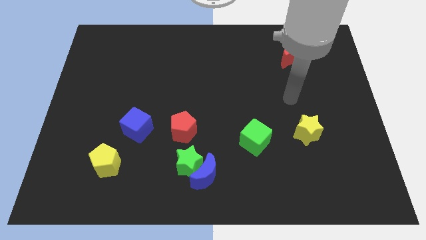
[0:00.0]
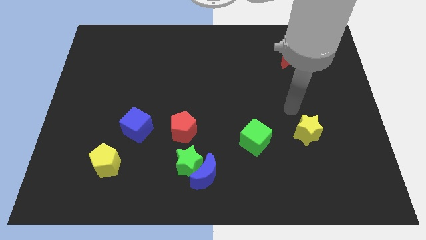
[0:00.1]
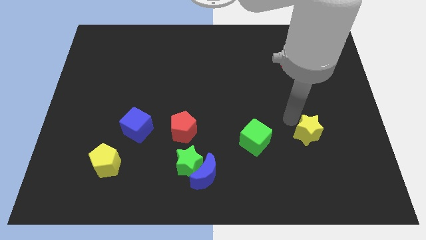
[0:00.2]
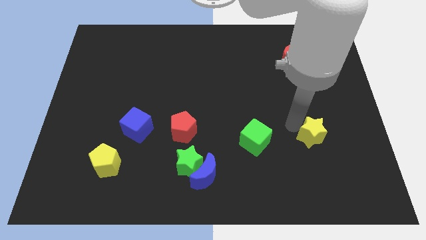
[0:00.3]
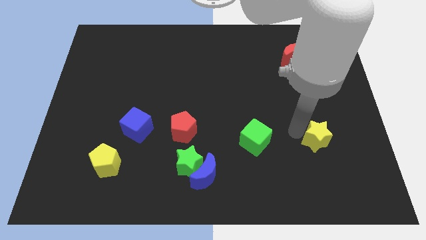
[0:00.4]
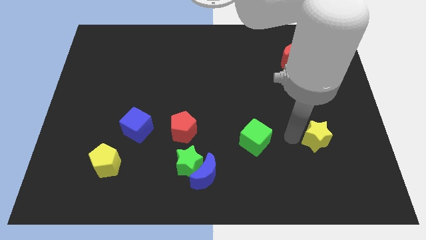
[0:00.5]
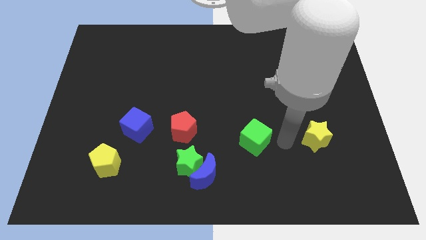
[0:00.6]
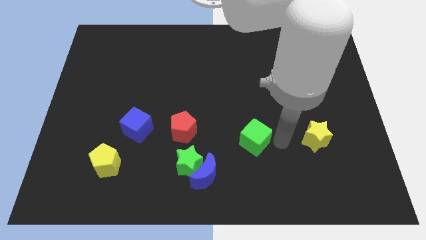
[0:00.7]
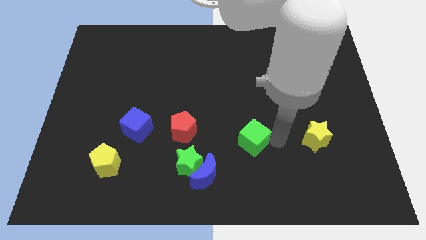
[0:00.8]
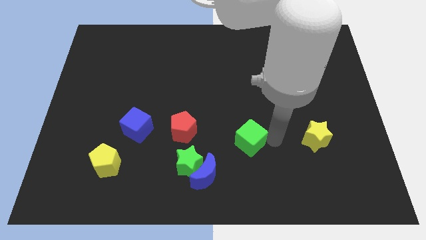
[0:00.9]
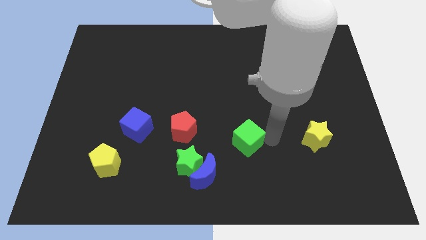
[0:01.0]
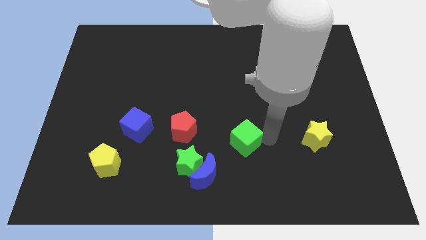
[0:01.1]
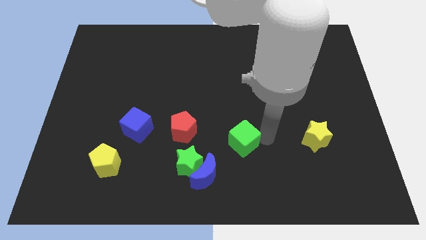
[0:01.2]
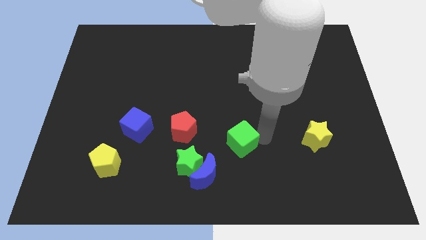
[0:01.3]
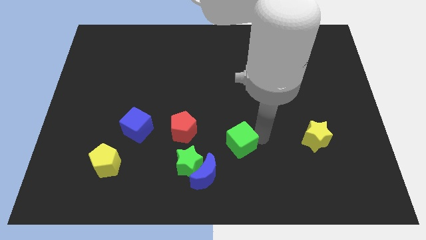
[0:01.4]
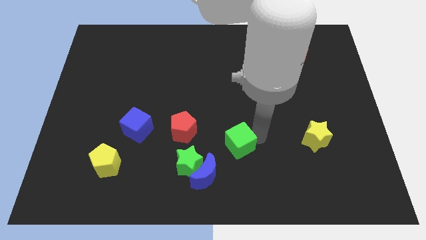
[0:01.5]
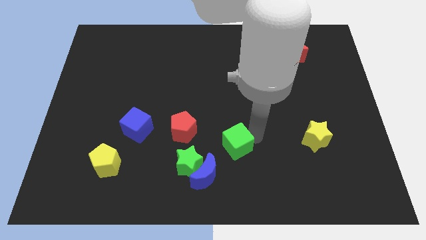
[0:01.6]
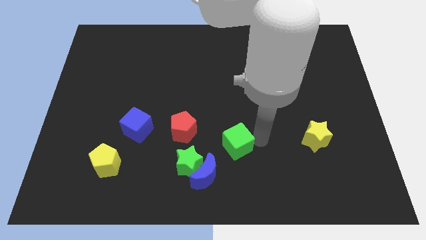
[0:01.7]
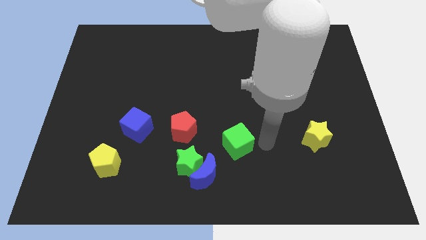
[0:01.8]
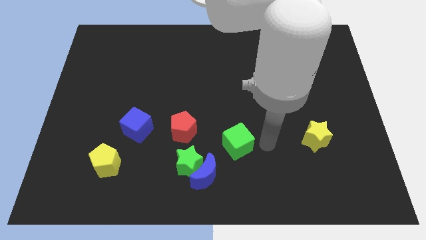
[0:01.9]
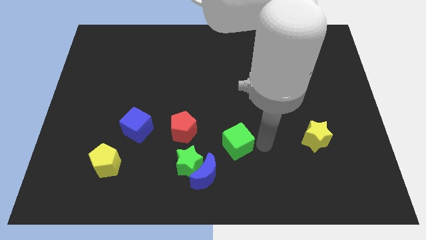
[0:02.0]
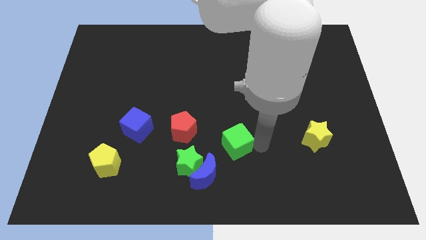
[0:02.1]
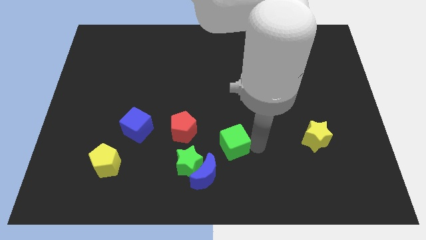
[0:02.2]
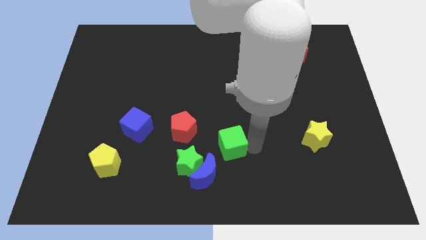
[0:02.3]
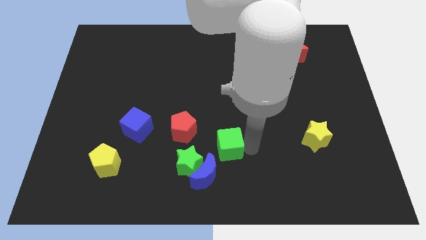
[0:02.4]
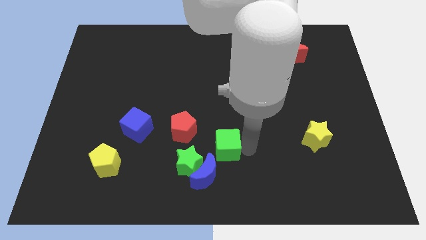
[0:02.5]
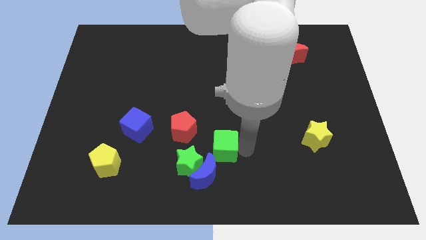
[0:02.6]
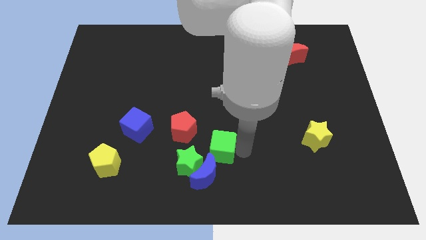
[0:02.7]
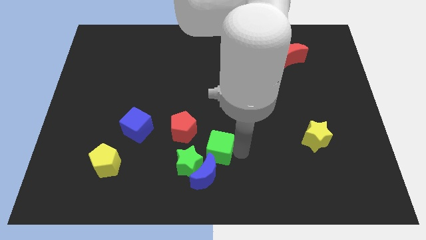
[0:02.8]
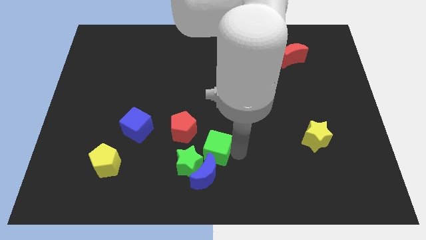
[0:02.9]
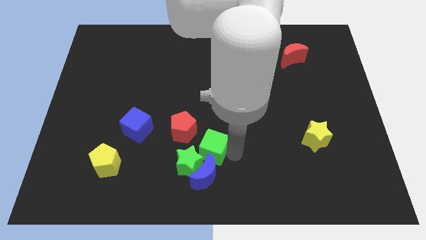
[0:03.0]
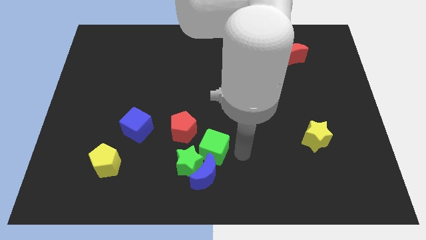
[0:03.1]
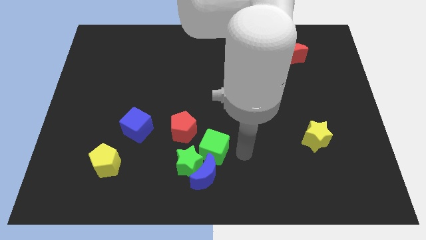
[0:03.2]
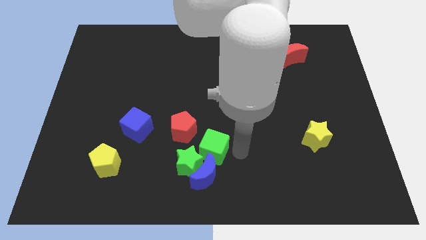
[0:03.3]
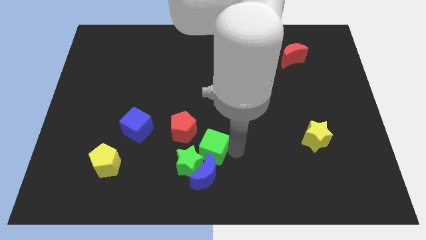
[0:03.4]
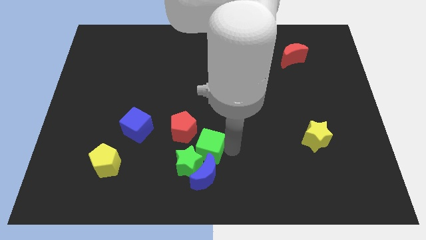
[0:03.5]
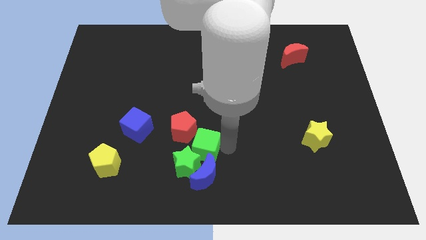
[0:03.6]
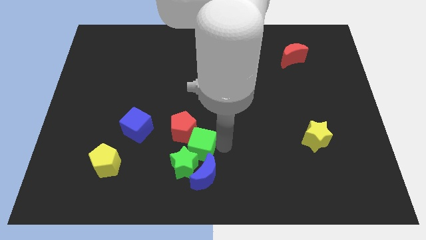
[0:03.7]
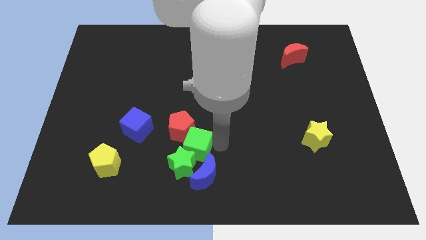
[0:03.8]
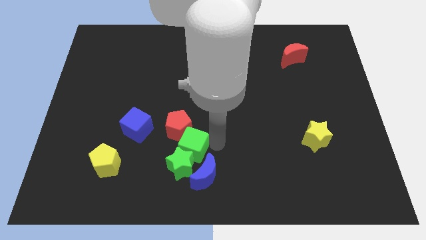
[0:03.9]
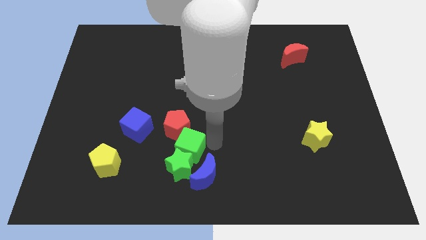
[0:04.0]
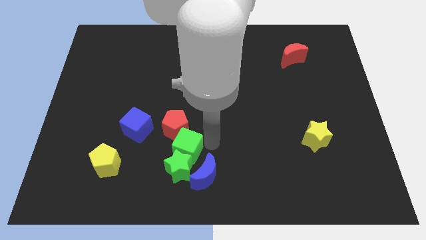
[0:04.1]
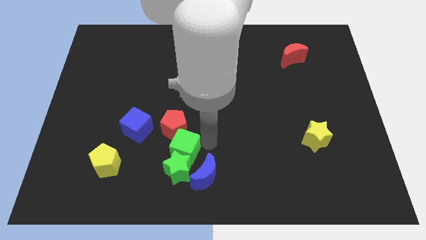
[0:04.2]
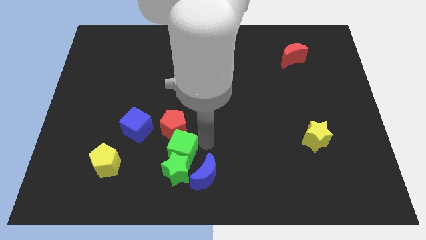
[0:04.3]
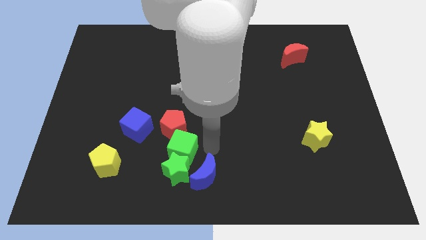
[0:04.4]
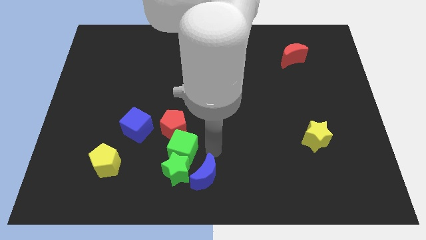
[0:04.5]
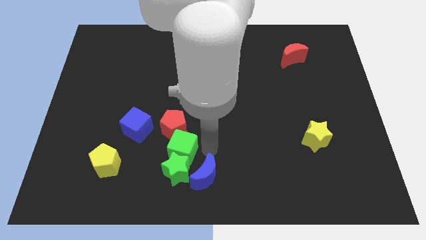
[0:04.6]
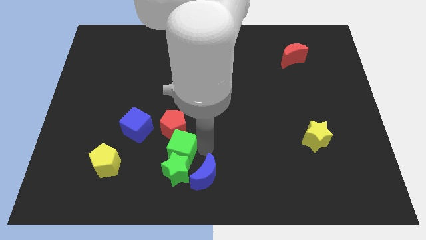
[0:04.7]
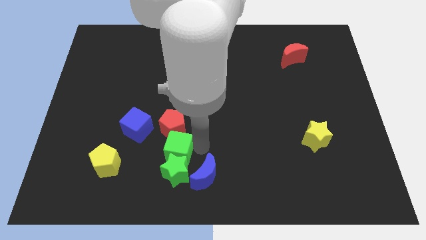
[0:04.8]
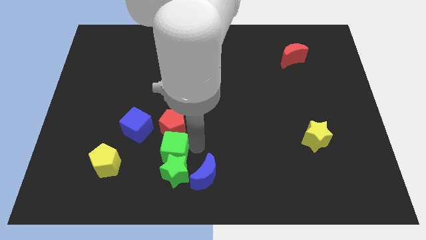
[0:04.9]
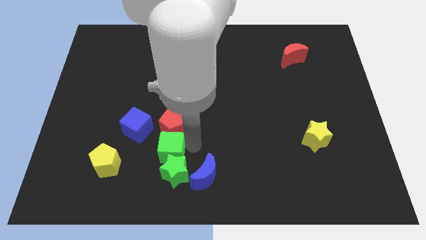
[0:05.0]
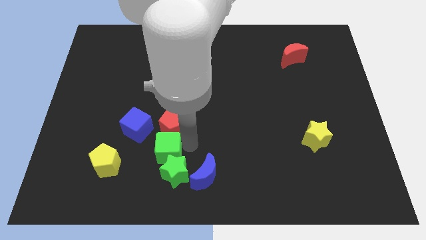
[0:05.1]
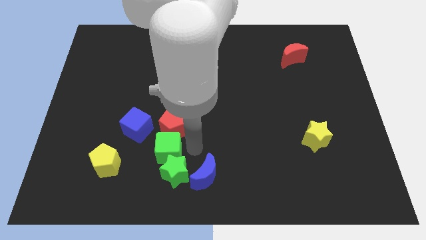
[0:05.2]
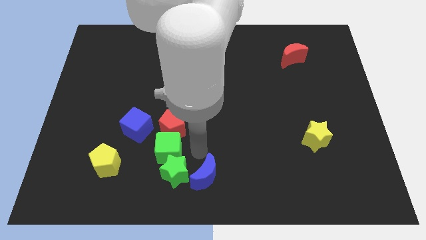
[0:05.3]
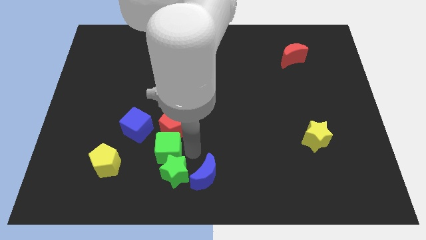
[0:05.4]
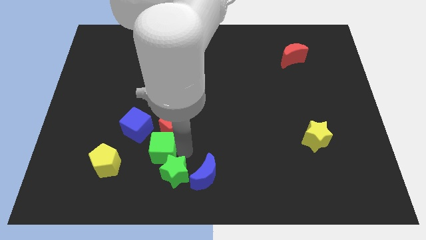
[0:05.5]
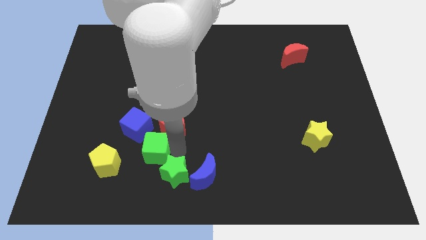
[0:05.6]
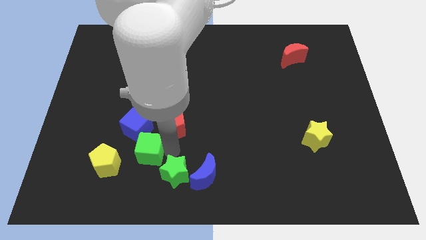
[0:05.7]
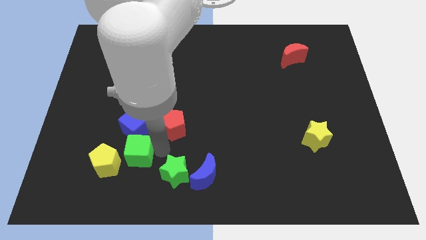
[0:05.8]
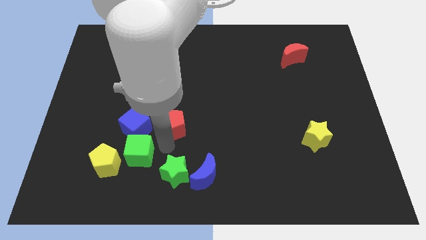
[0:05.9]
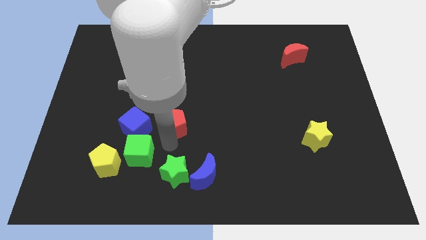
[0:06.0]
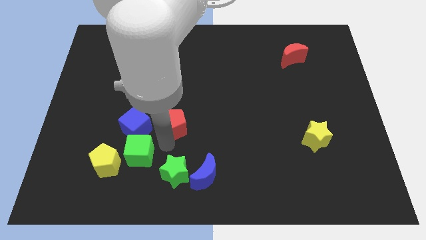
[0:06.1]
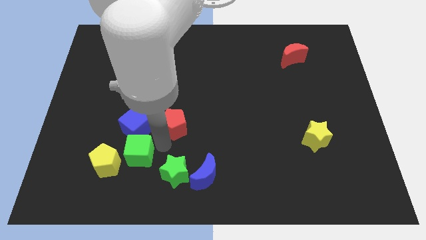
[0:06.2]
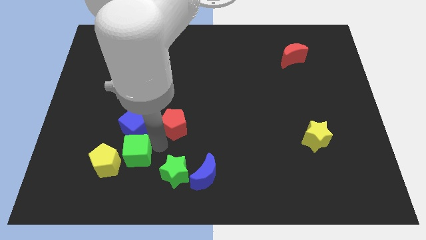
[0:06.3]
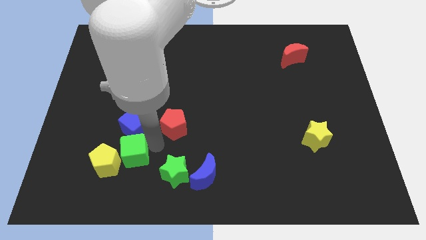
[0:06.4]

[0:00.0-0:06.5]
put the green cube close to the yellow pentagon
